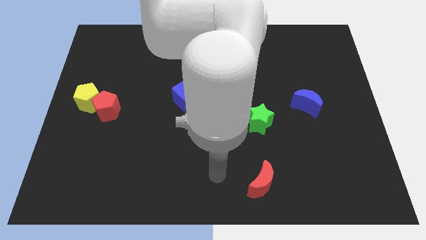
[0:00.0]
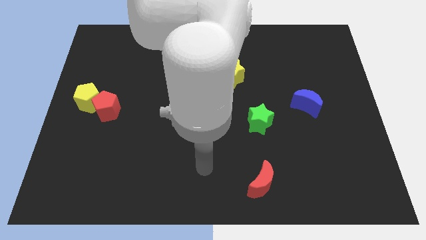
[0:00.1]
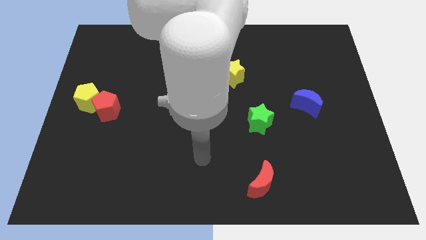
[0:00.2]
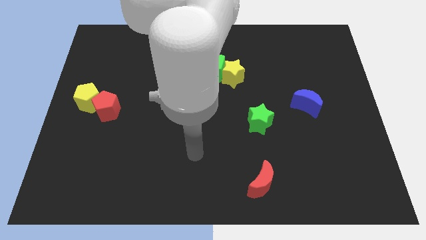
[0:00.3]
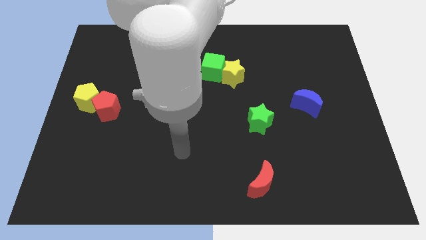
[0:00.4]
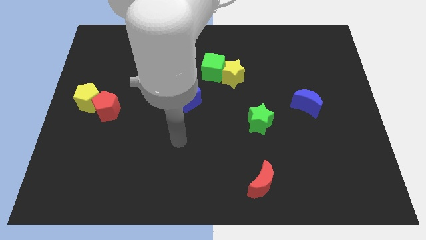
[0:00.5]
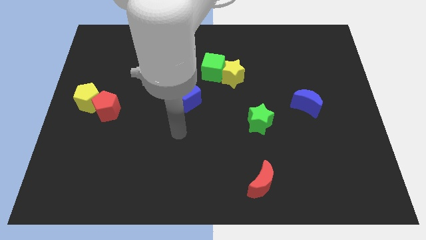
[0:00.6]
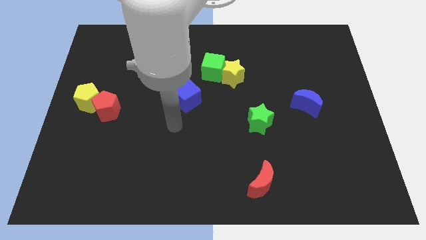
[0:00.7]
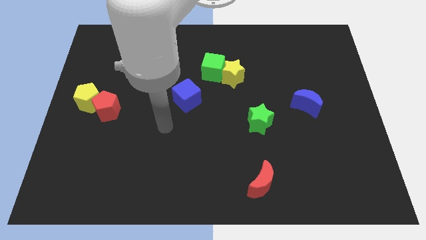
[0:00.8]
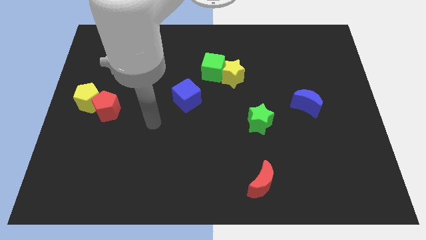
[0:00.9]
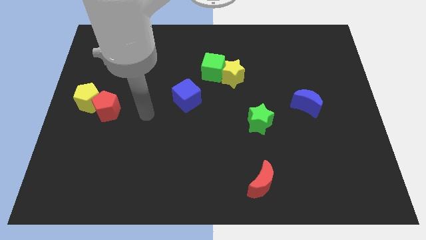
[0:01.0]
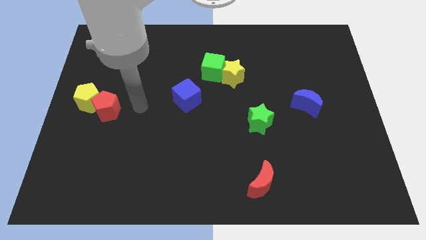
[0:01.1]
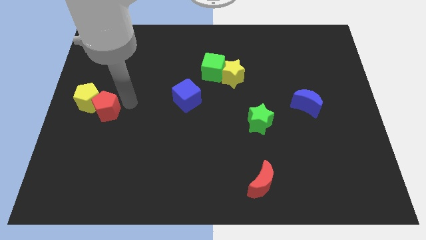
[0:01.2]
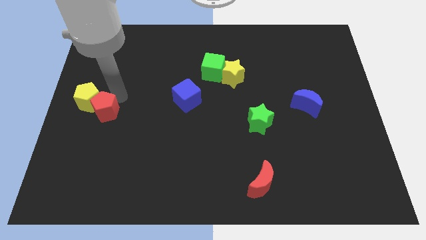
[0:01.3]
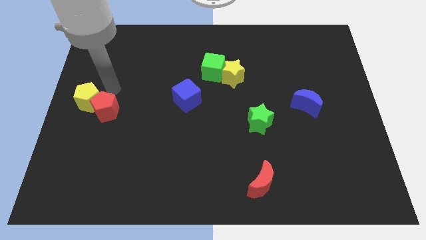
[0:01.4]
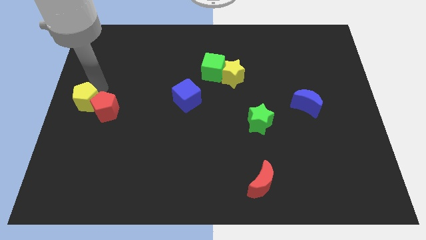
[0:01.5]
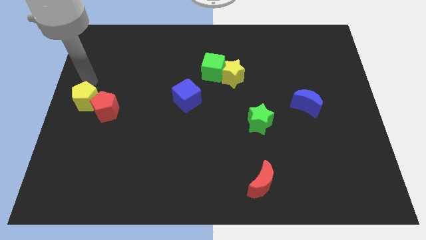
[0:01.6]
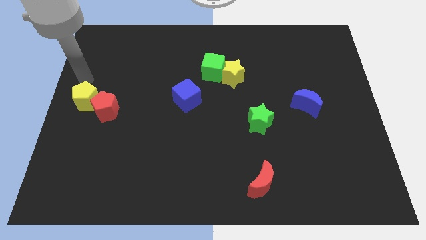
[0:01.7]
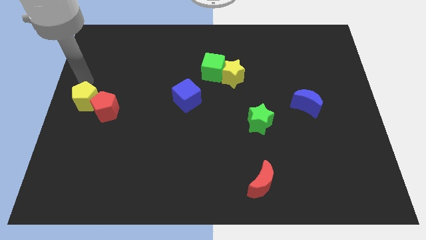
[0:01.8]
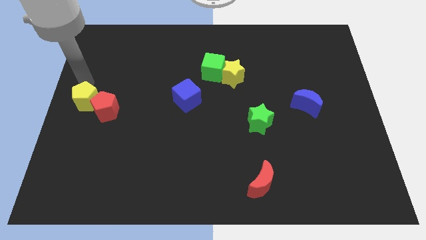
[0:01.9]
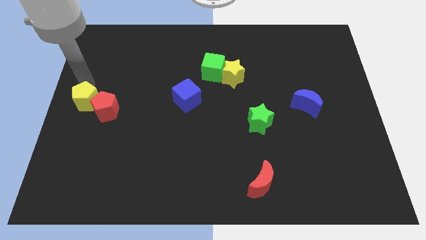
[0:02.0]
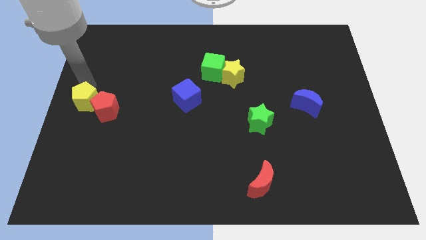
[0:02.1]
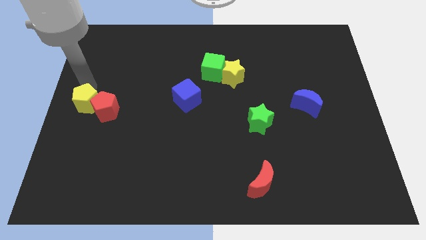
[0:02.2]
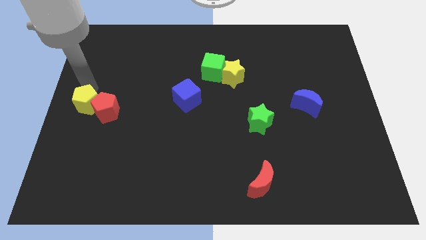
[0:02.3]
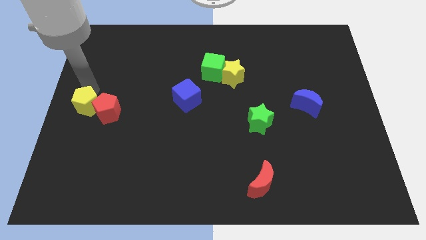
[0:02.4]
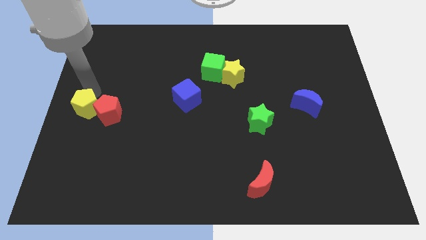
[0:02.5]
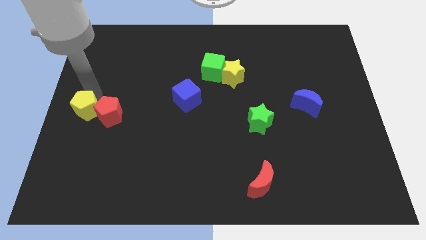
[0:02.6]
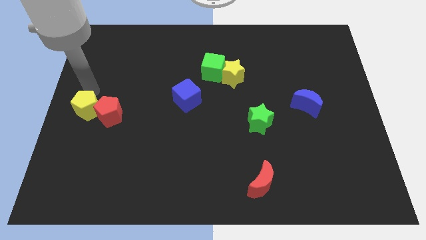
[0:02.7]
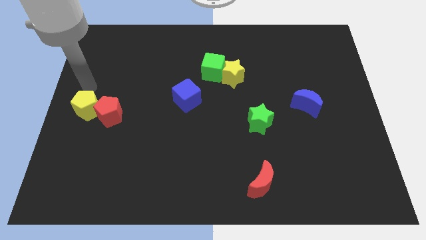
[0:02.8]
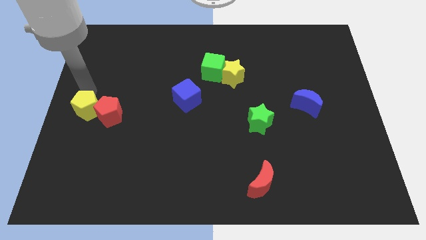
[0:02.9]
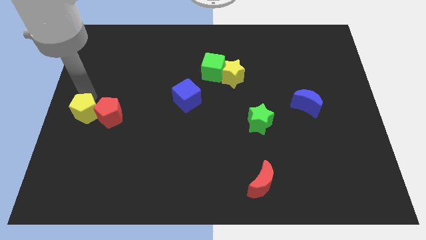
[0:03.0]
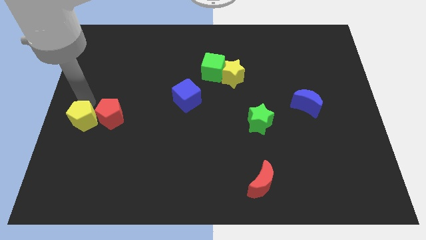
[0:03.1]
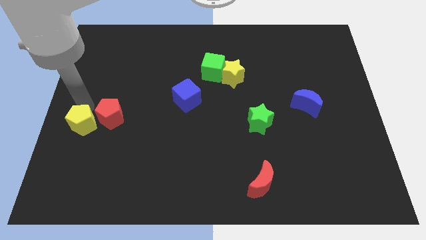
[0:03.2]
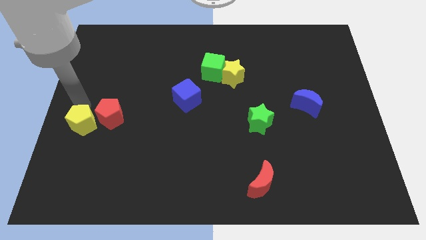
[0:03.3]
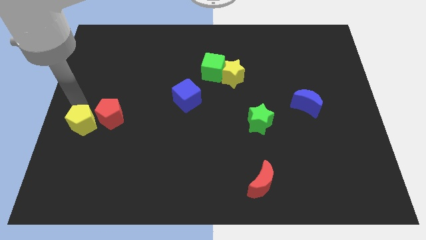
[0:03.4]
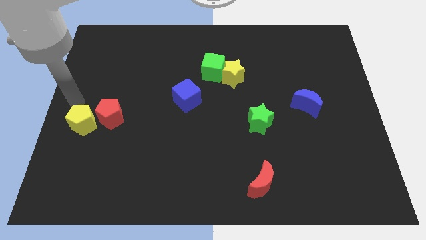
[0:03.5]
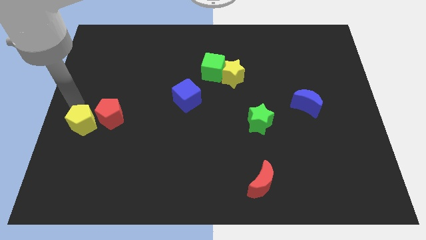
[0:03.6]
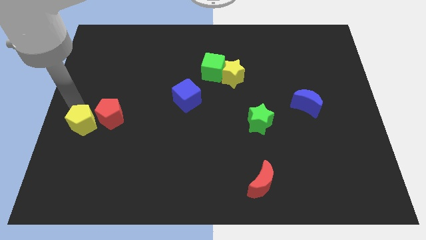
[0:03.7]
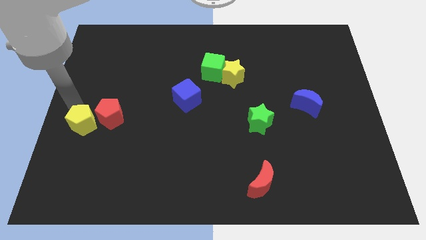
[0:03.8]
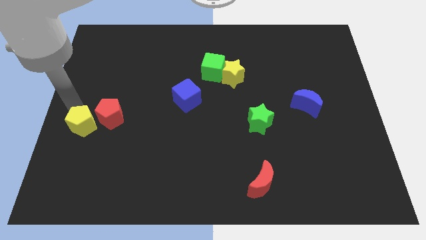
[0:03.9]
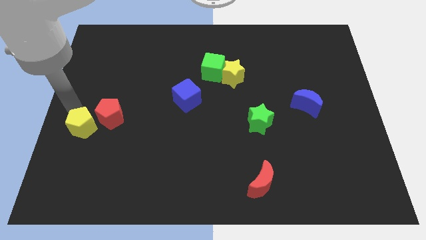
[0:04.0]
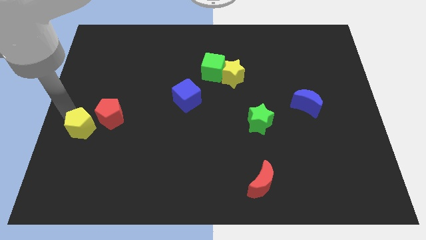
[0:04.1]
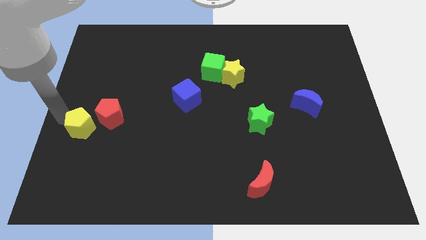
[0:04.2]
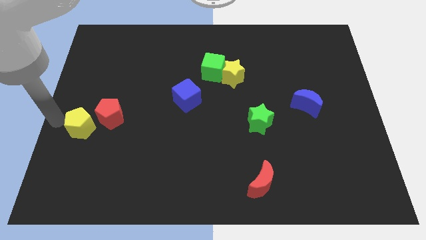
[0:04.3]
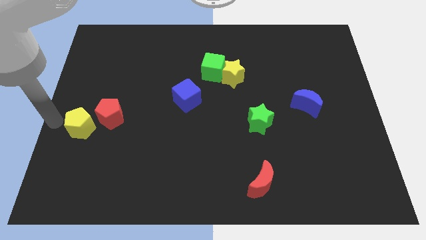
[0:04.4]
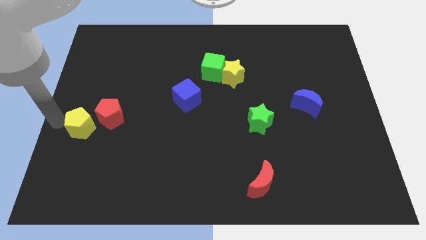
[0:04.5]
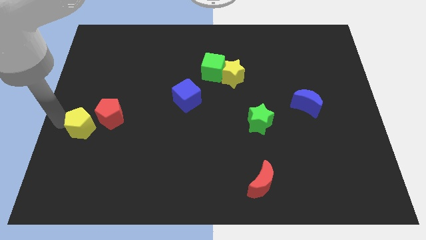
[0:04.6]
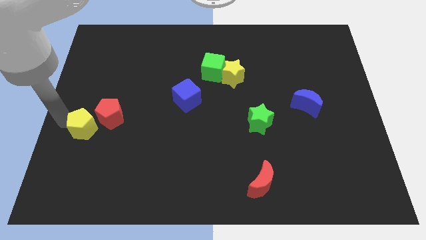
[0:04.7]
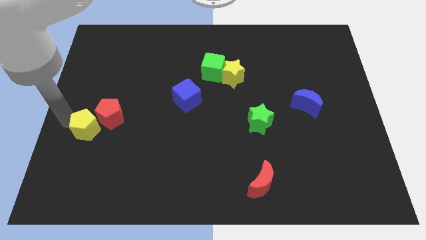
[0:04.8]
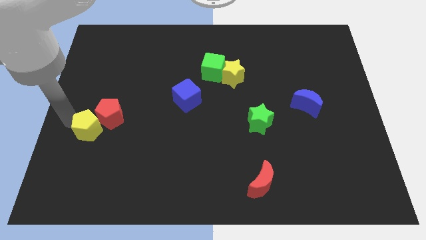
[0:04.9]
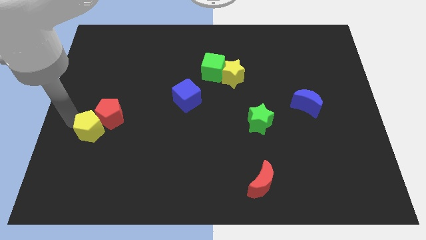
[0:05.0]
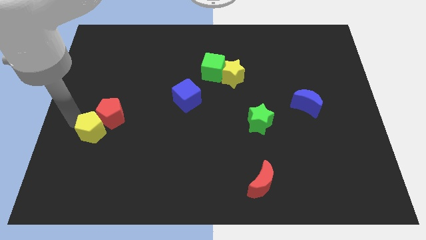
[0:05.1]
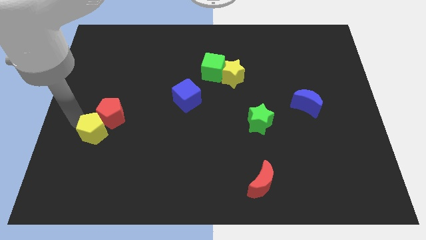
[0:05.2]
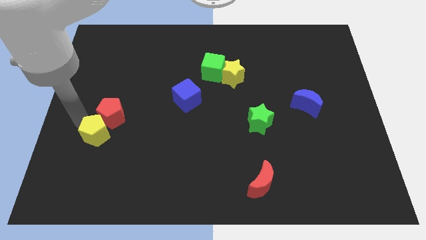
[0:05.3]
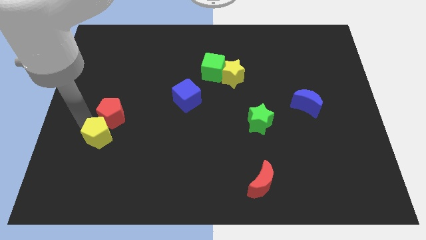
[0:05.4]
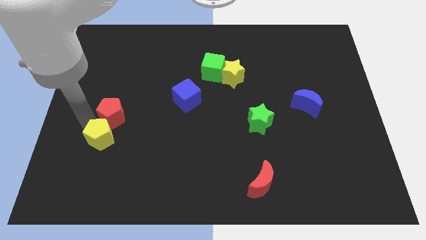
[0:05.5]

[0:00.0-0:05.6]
push the yellow pentagon to the bottom right side of the red pentagon
